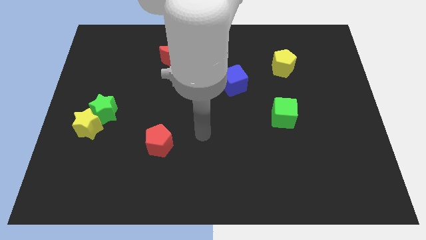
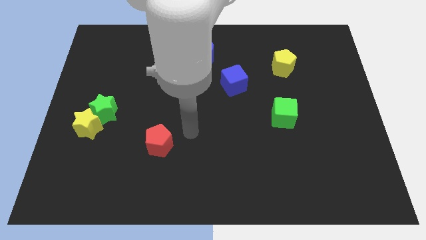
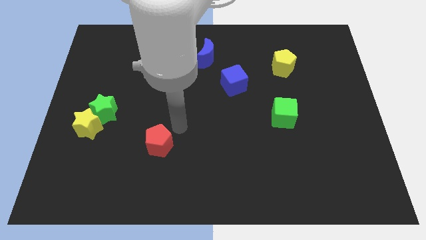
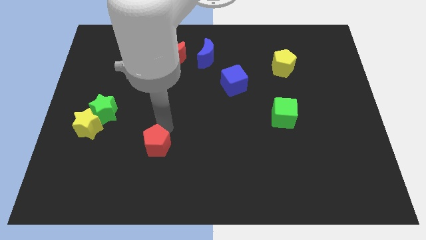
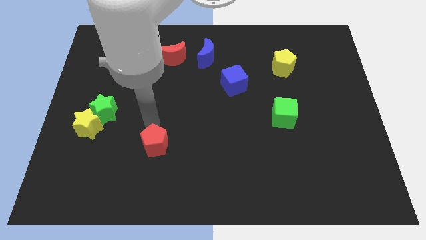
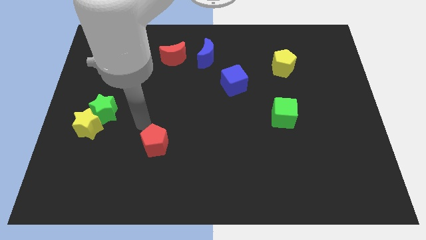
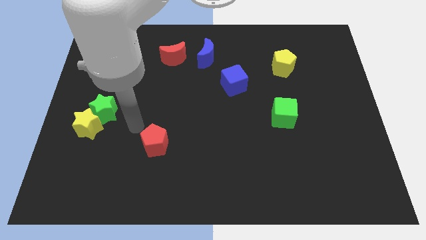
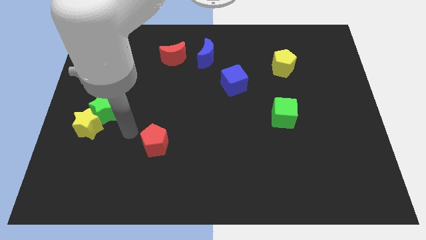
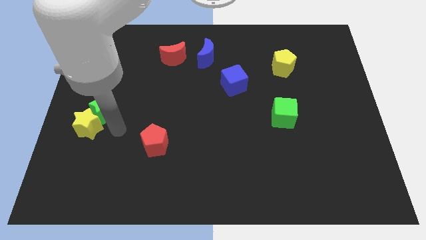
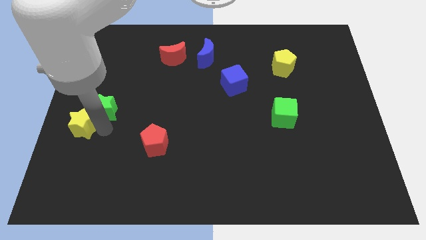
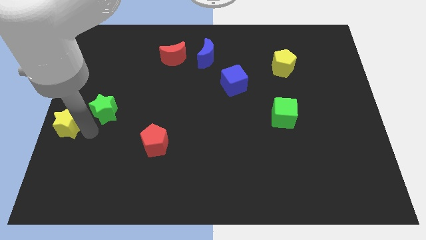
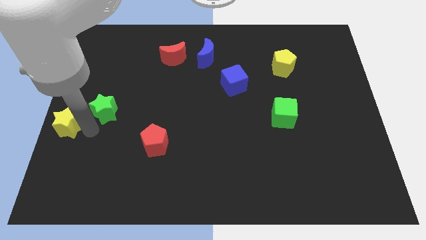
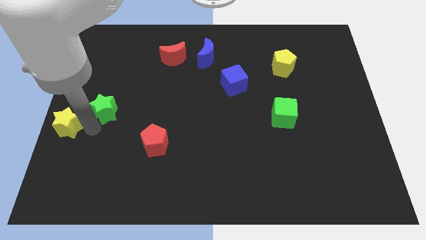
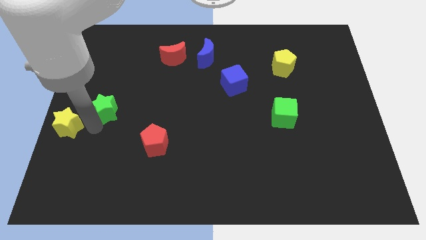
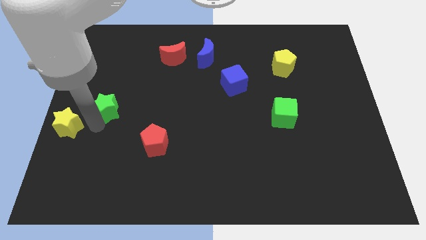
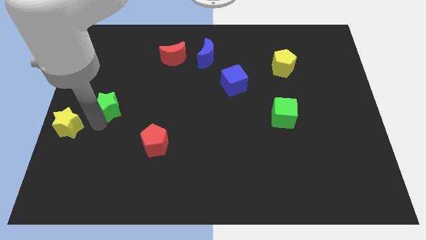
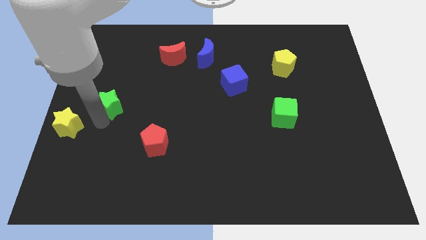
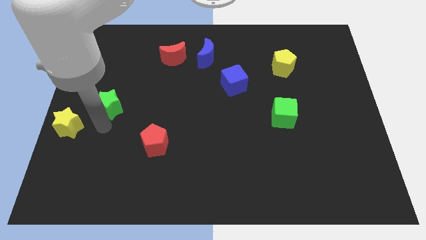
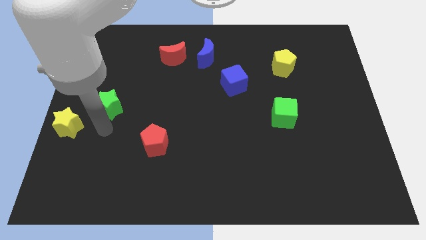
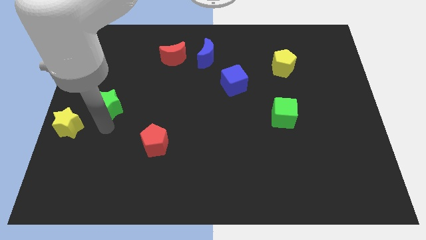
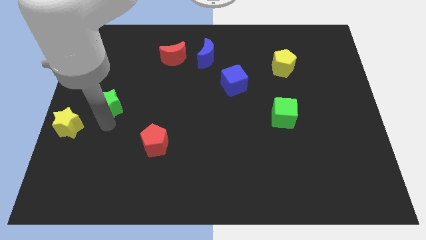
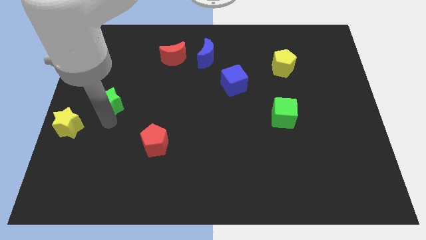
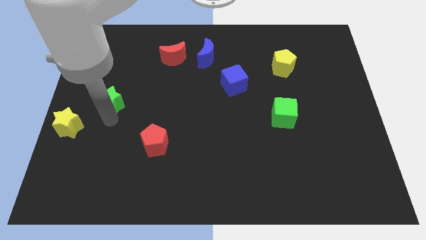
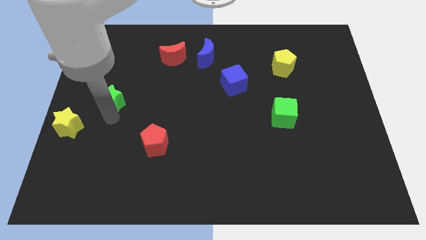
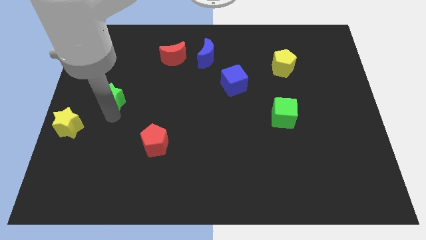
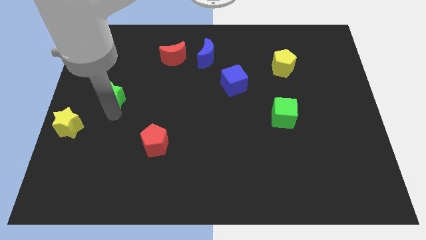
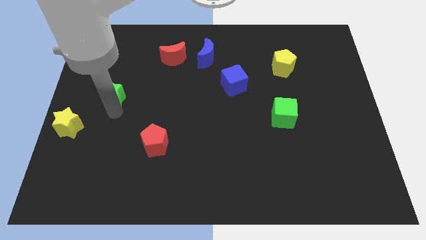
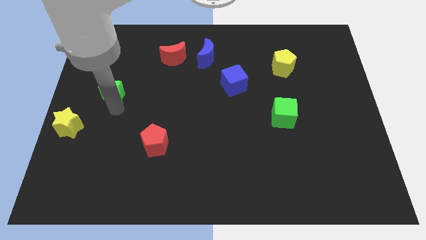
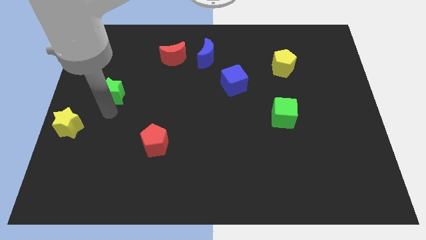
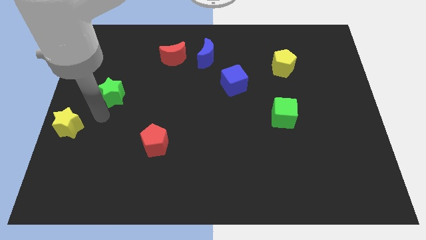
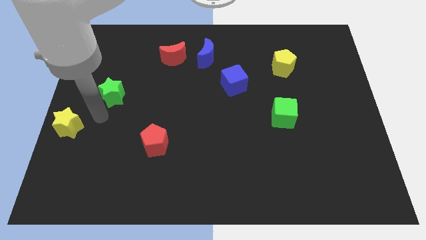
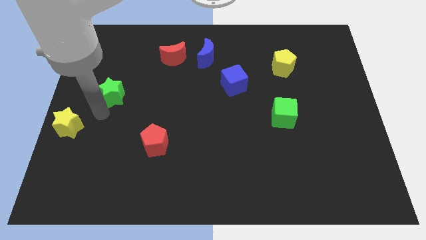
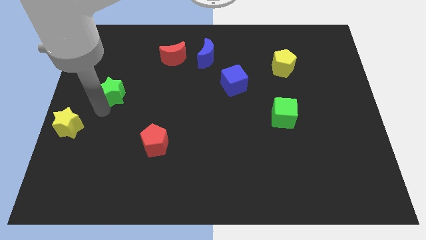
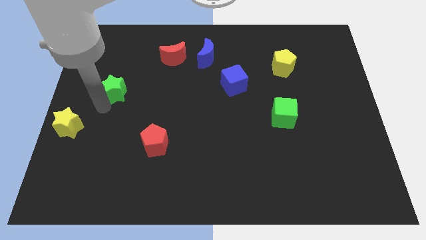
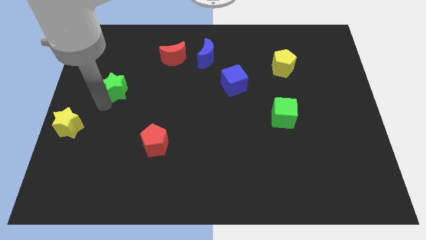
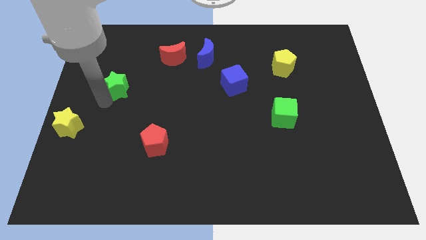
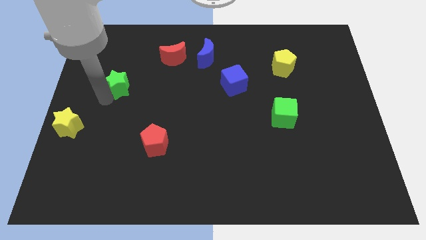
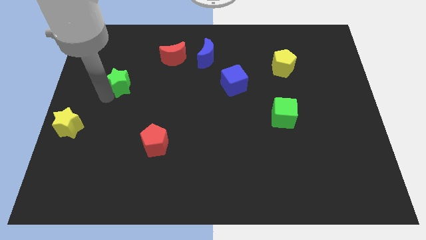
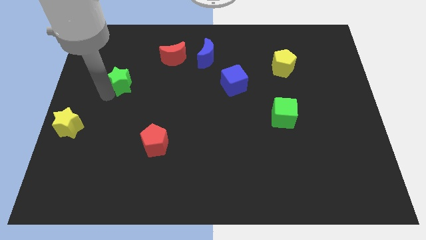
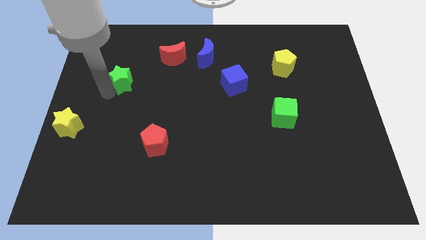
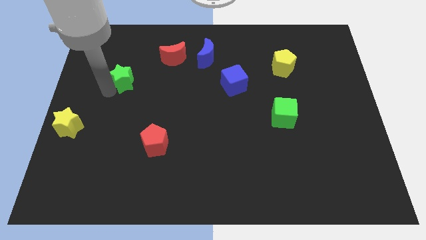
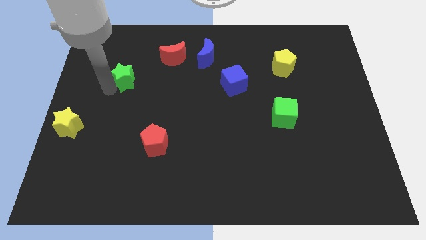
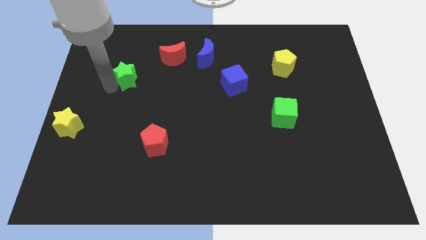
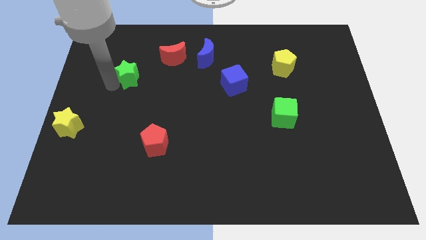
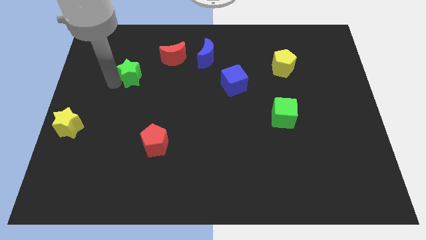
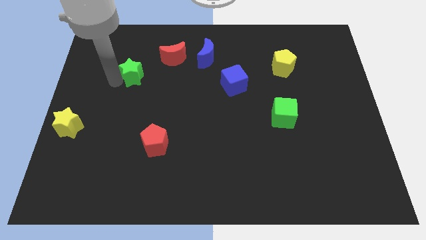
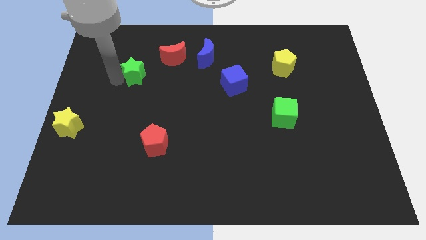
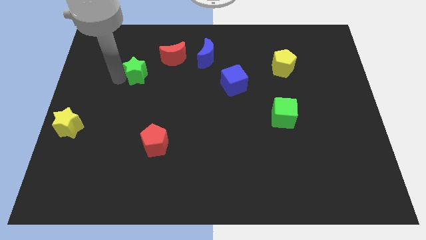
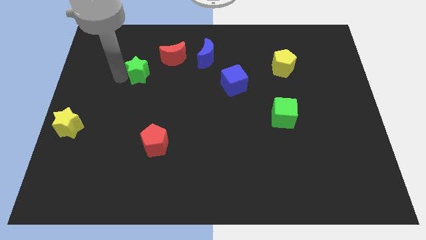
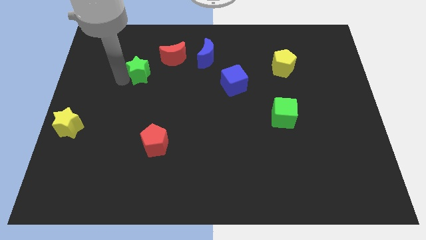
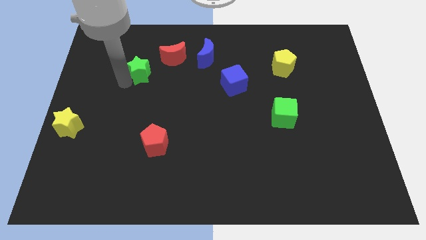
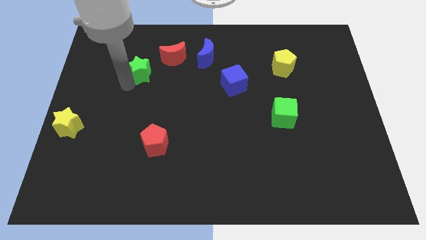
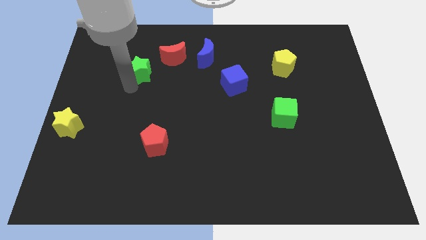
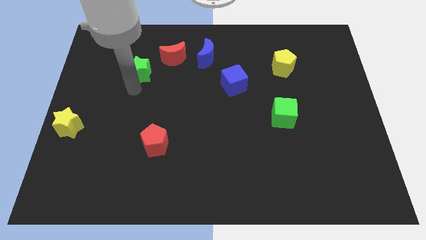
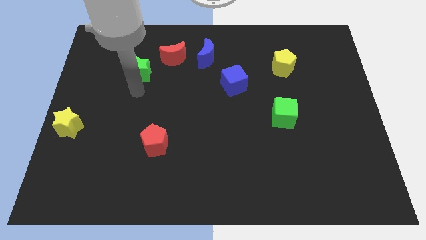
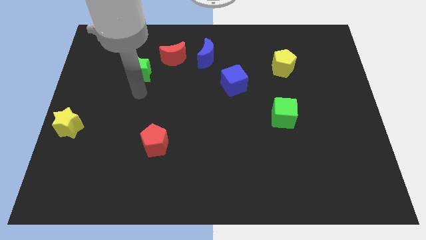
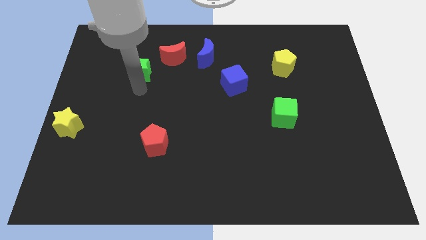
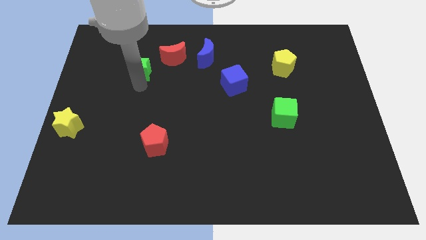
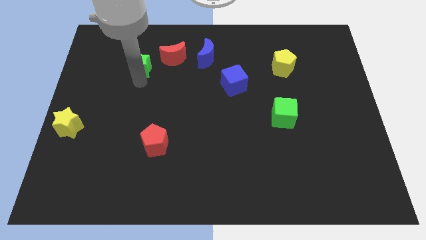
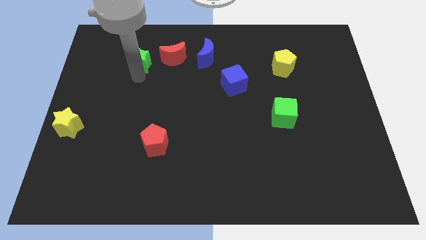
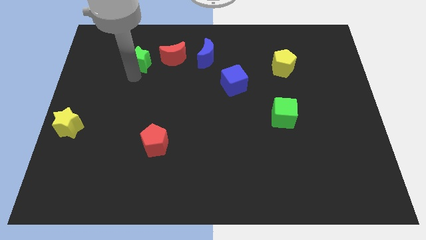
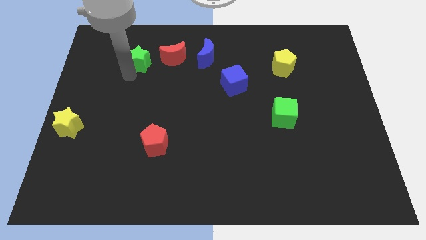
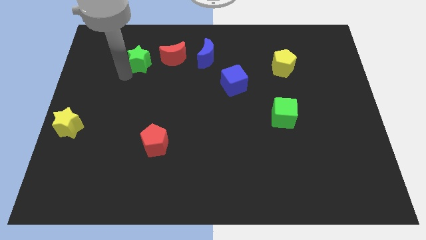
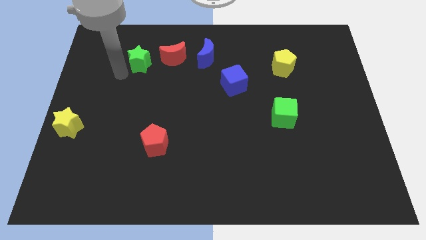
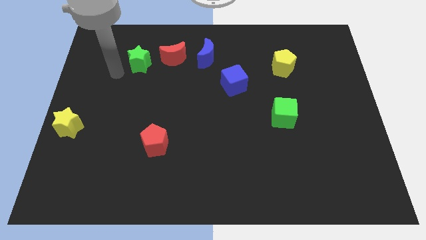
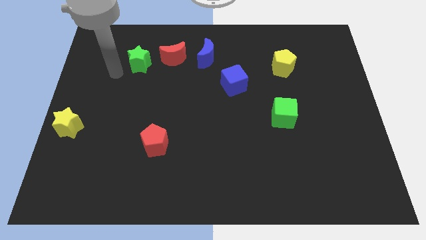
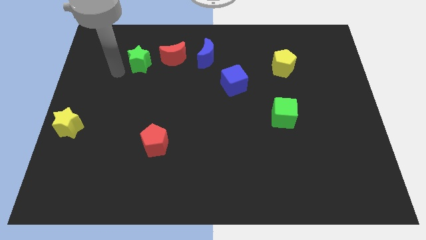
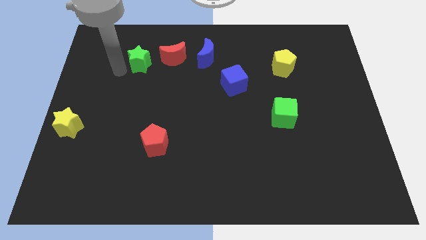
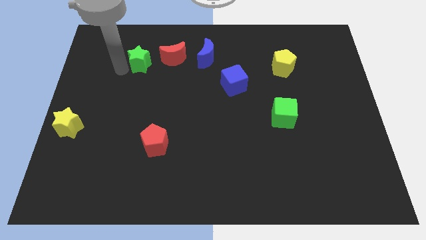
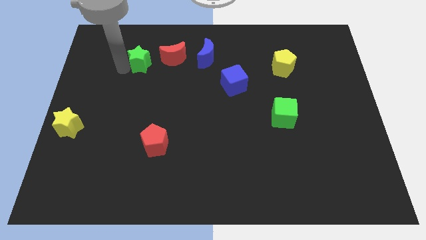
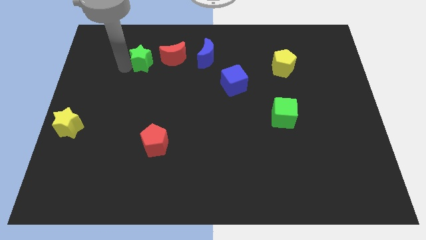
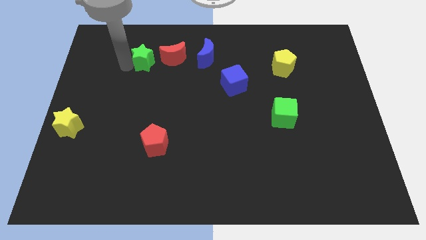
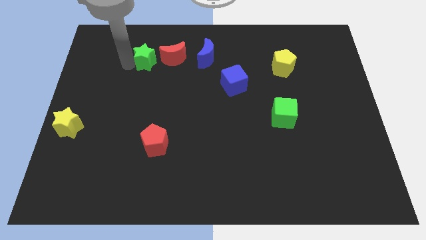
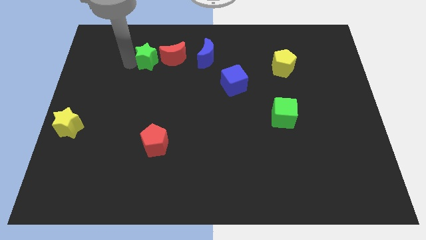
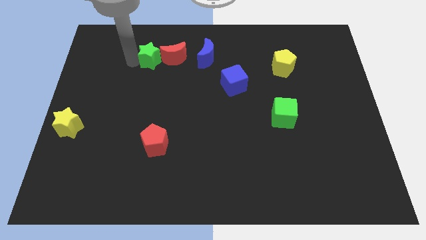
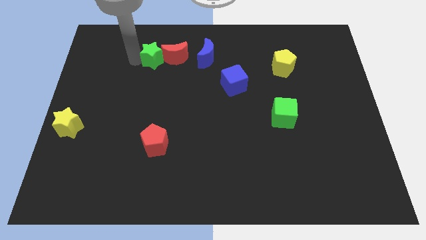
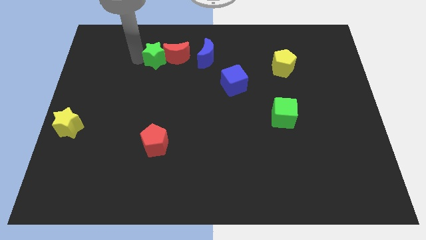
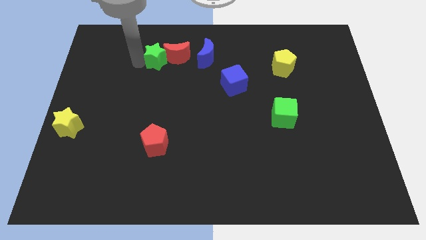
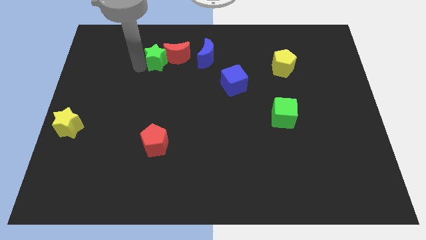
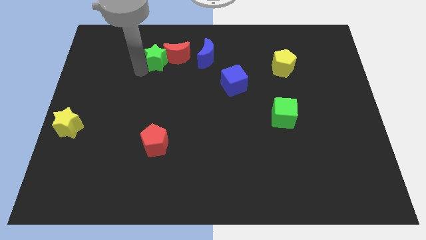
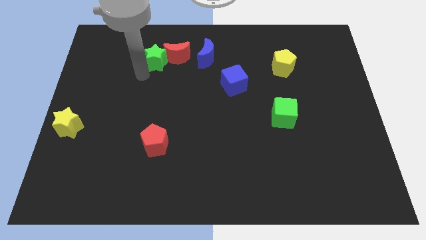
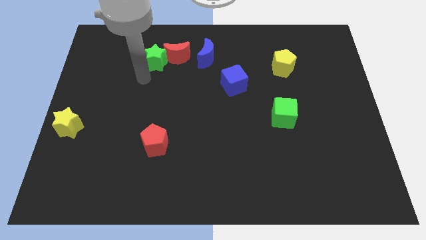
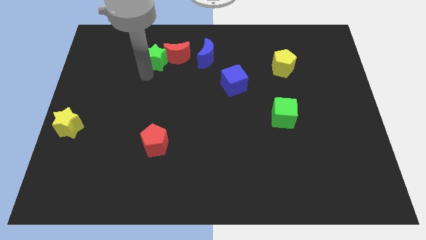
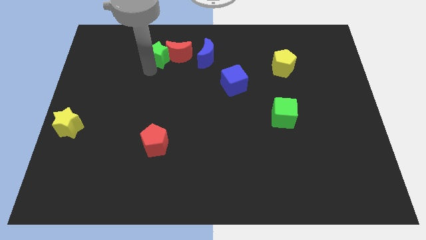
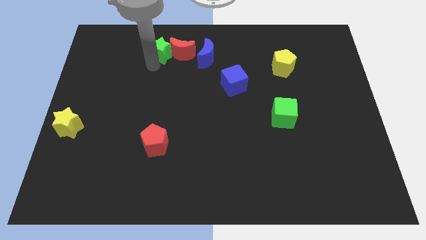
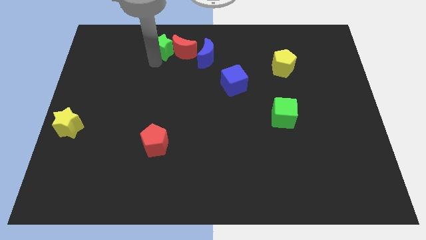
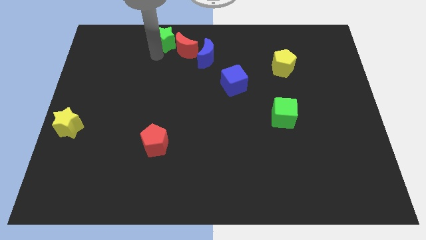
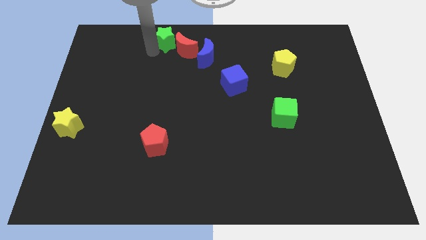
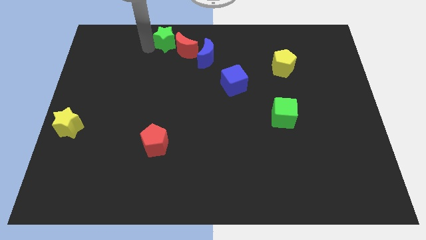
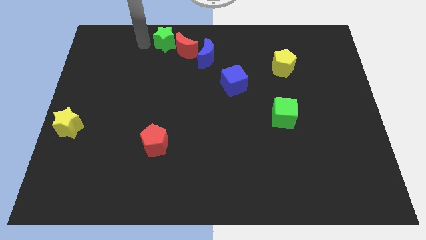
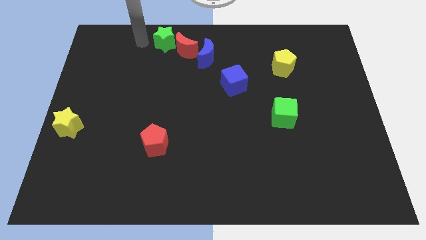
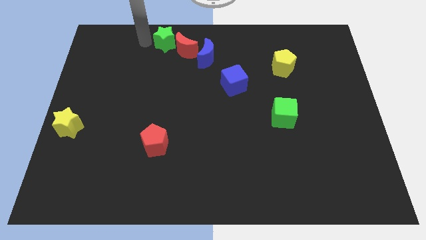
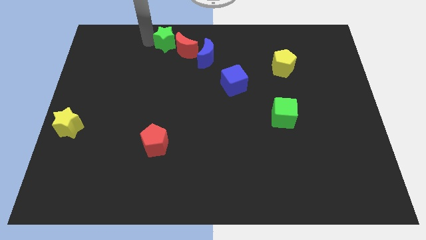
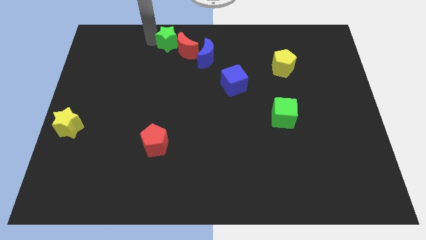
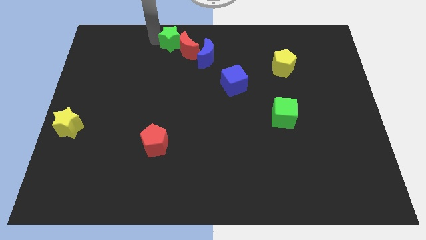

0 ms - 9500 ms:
push the green star to the top side
